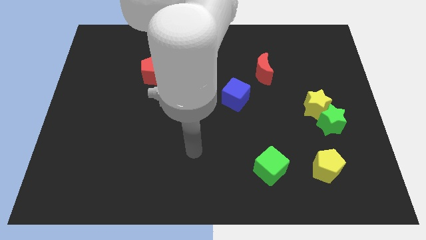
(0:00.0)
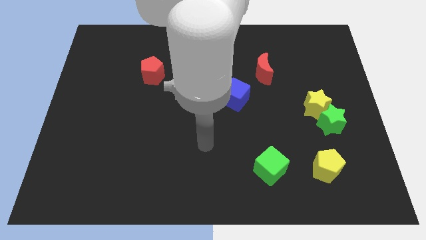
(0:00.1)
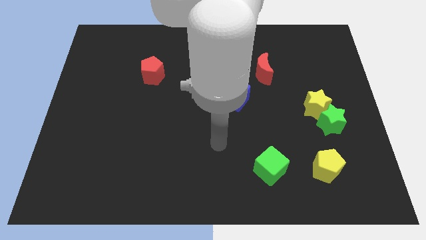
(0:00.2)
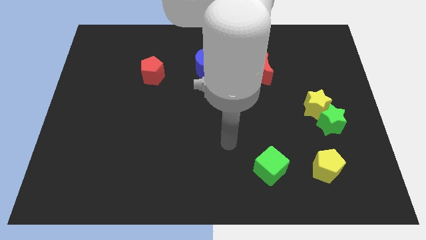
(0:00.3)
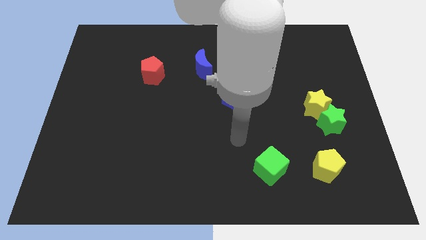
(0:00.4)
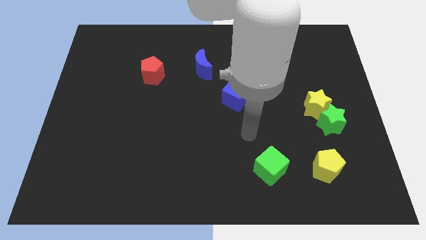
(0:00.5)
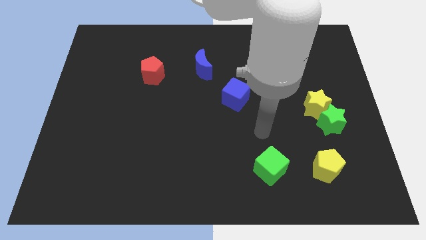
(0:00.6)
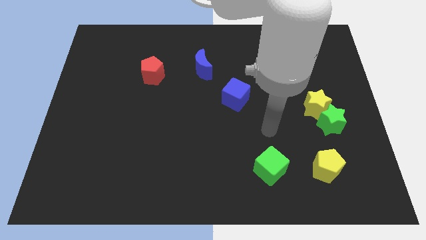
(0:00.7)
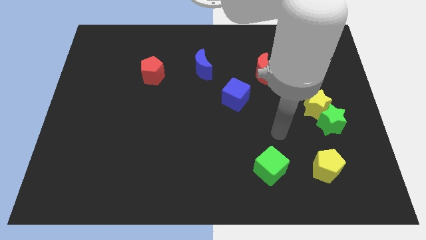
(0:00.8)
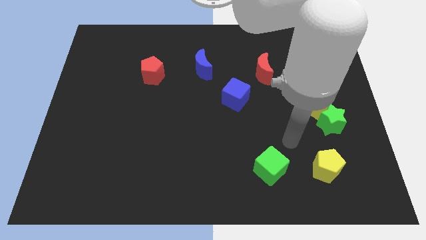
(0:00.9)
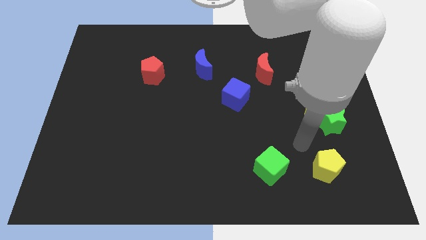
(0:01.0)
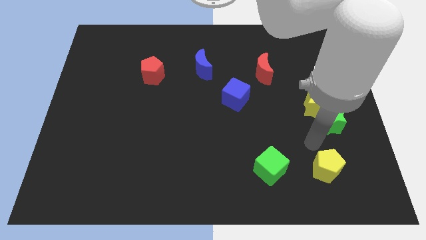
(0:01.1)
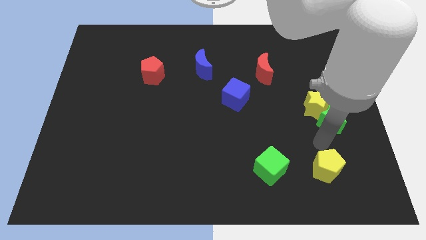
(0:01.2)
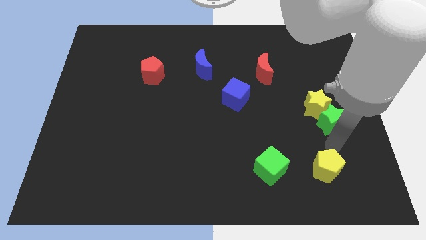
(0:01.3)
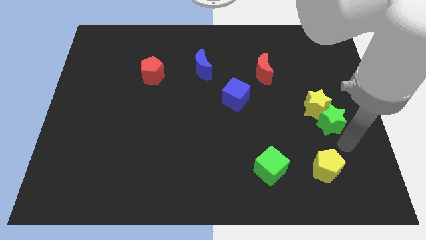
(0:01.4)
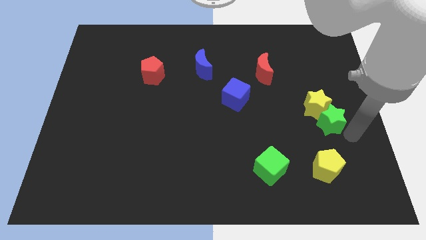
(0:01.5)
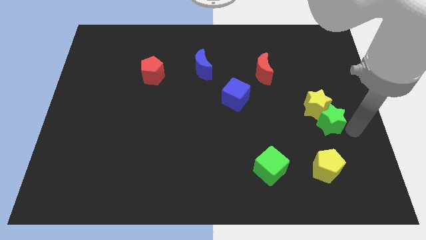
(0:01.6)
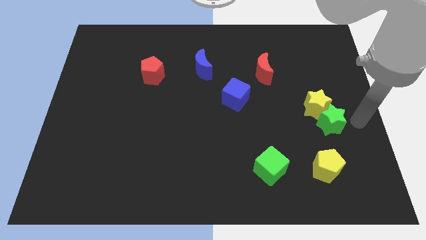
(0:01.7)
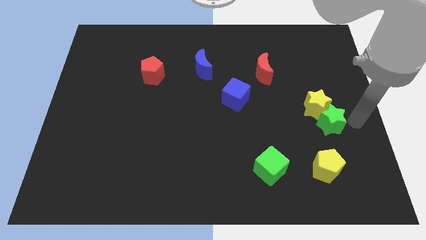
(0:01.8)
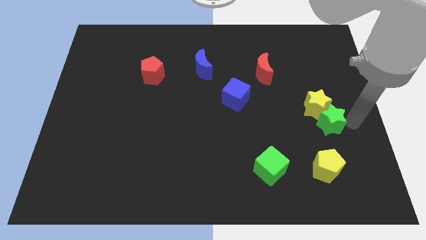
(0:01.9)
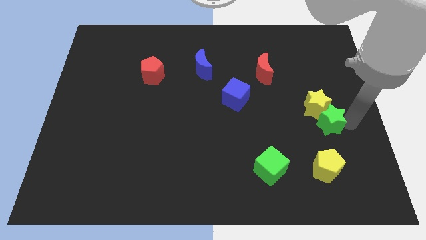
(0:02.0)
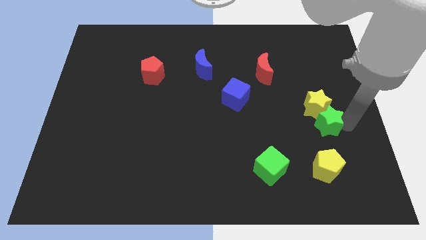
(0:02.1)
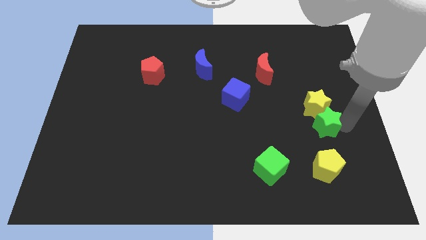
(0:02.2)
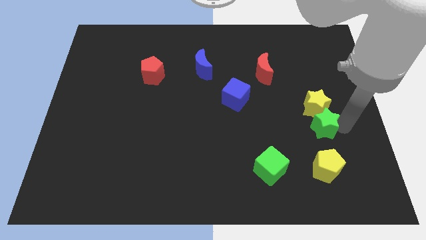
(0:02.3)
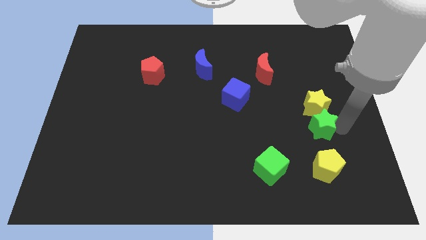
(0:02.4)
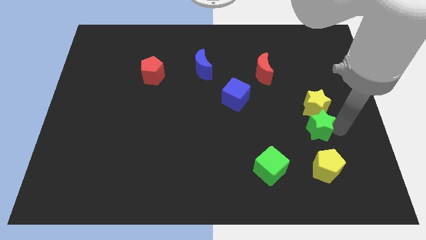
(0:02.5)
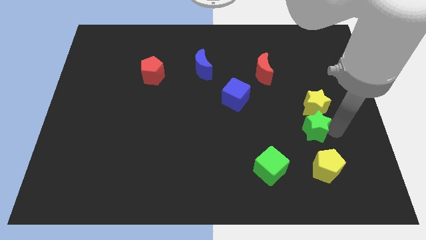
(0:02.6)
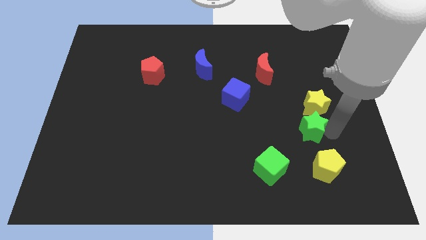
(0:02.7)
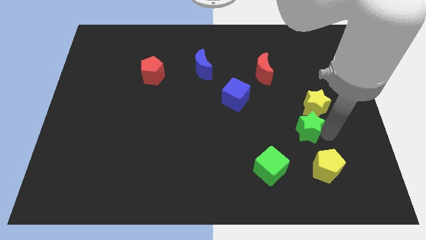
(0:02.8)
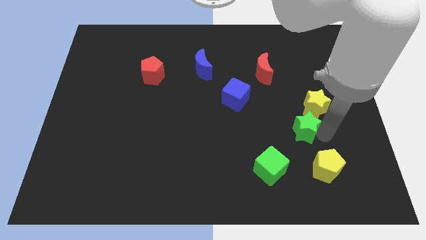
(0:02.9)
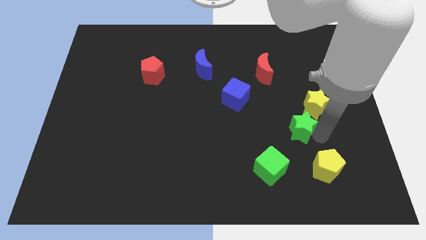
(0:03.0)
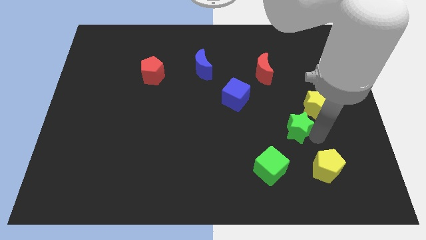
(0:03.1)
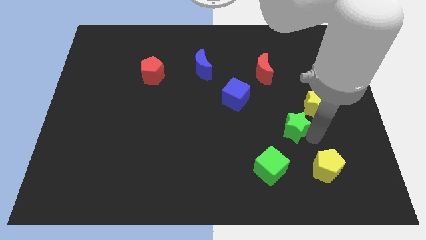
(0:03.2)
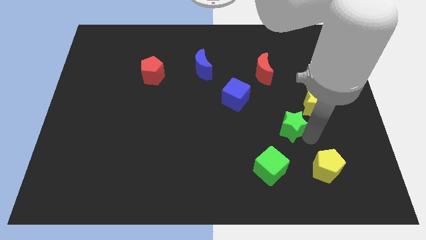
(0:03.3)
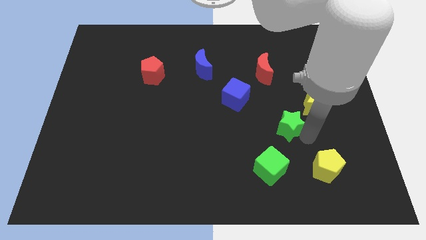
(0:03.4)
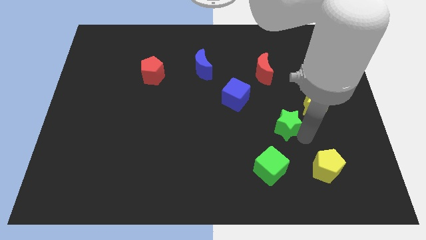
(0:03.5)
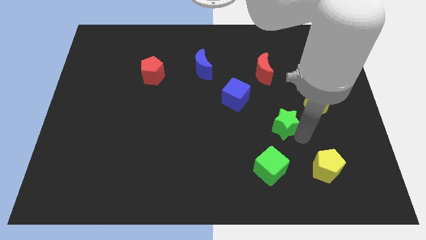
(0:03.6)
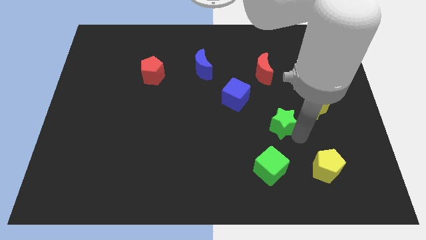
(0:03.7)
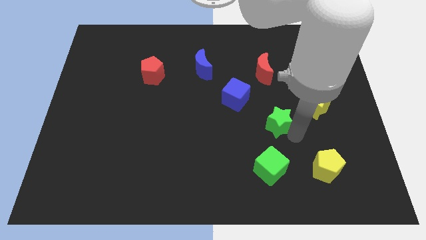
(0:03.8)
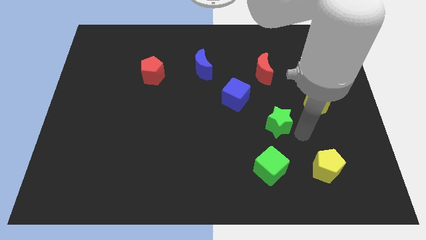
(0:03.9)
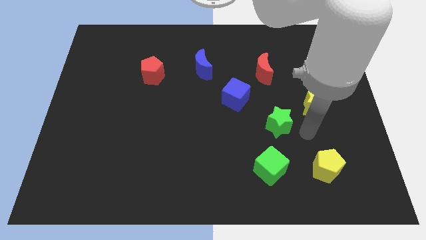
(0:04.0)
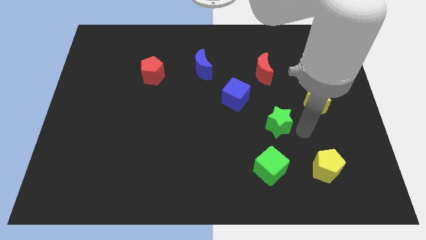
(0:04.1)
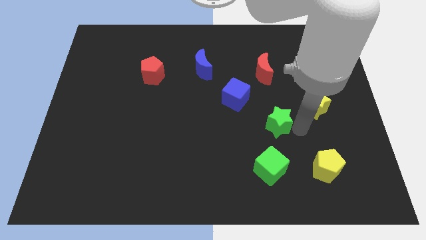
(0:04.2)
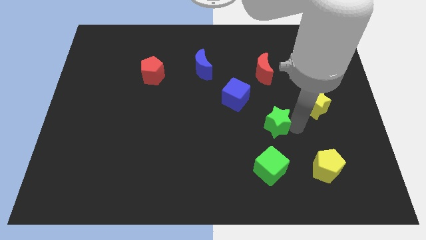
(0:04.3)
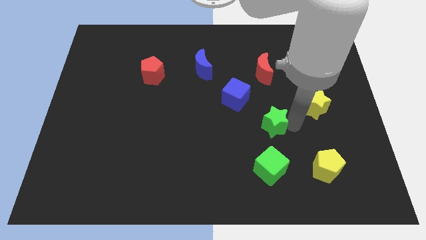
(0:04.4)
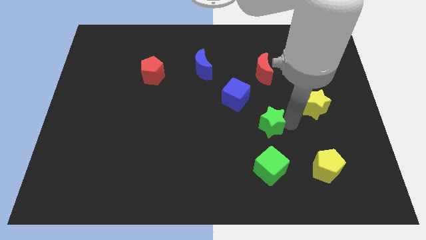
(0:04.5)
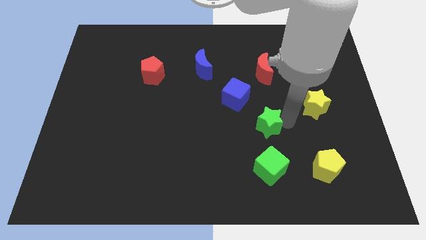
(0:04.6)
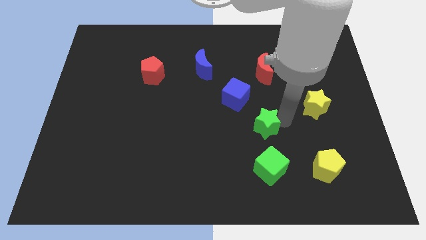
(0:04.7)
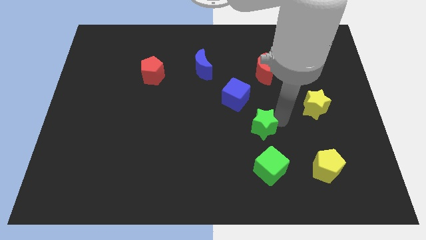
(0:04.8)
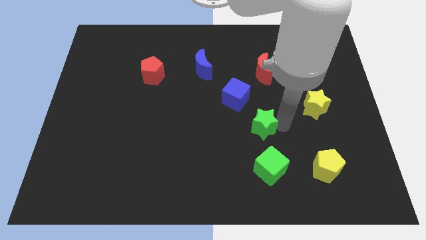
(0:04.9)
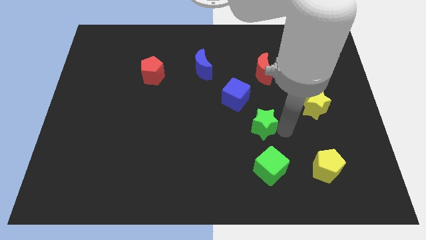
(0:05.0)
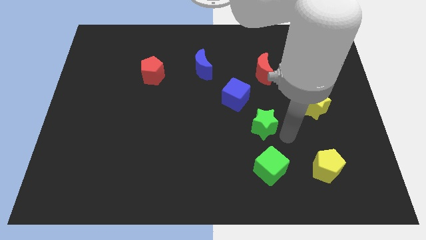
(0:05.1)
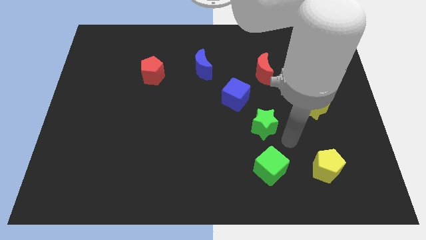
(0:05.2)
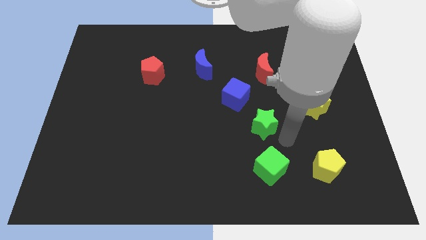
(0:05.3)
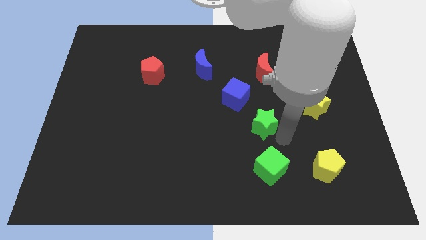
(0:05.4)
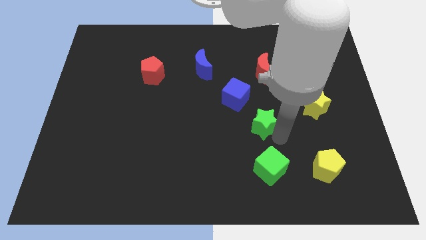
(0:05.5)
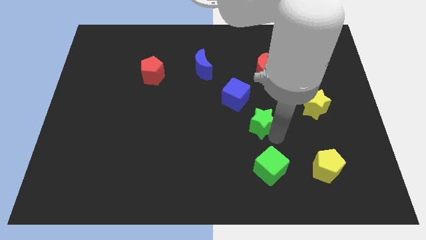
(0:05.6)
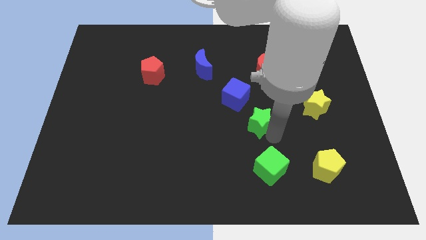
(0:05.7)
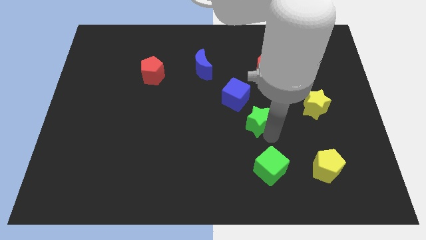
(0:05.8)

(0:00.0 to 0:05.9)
put the green star to the middle of the board

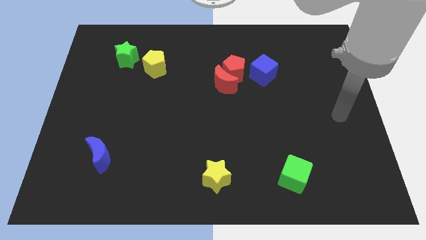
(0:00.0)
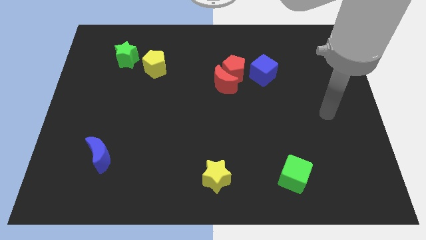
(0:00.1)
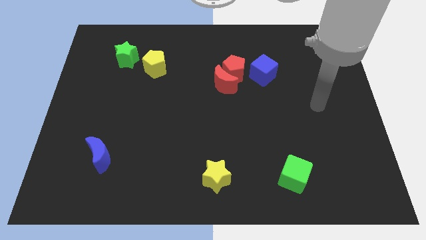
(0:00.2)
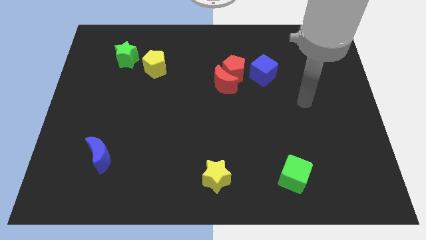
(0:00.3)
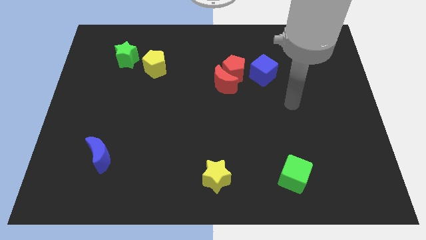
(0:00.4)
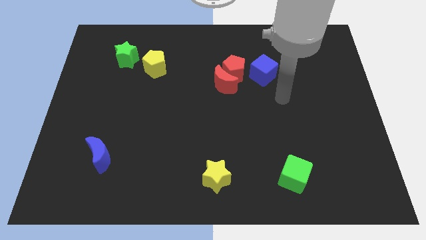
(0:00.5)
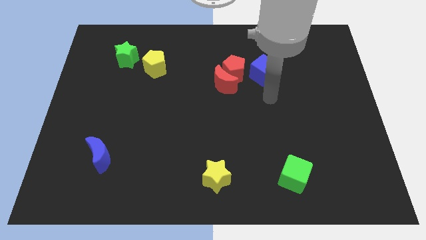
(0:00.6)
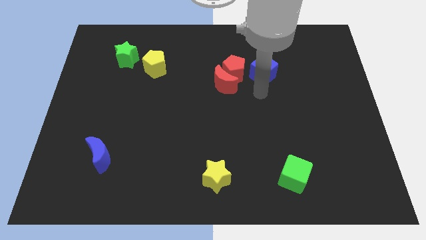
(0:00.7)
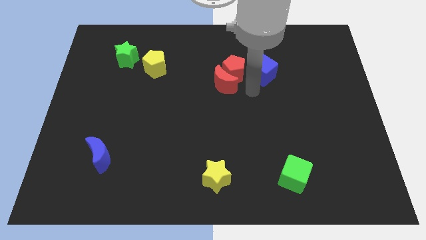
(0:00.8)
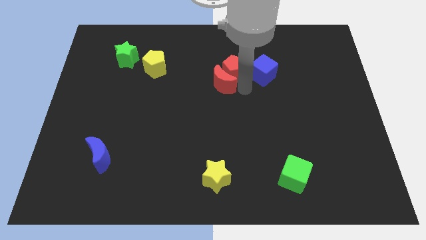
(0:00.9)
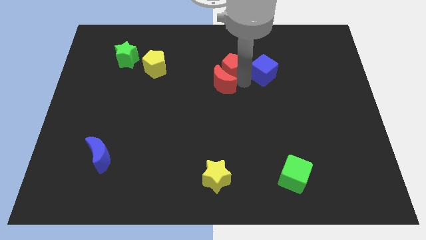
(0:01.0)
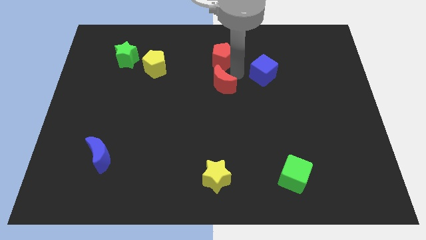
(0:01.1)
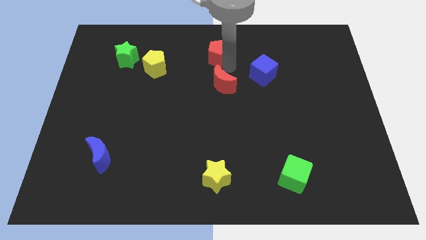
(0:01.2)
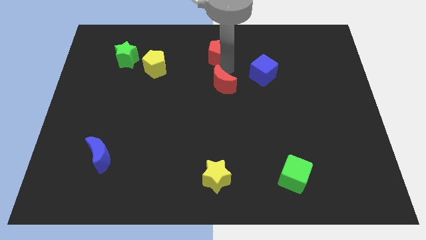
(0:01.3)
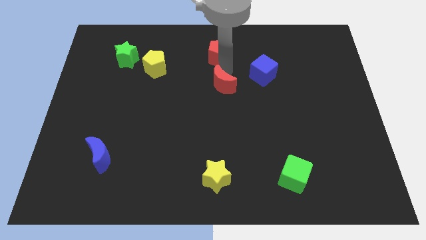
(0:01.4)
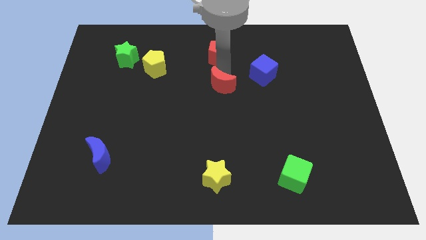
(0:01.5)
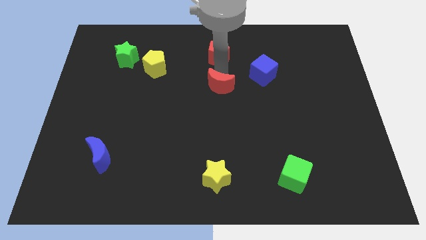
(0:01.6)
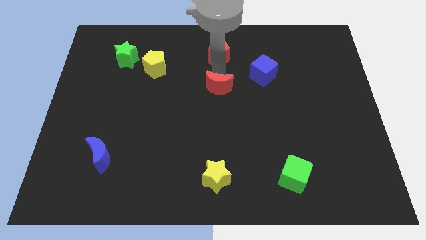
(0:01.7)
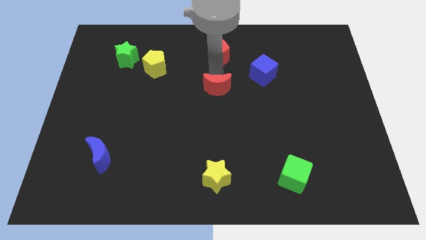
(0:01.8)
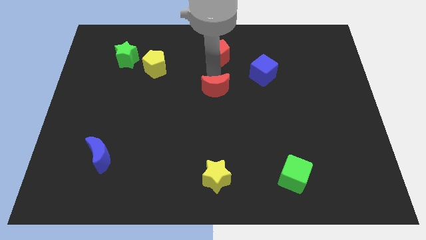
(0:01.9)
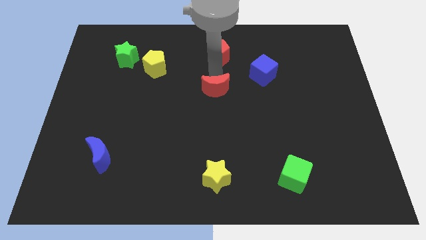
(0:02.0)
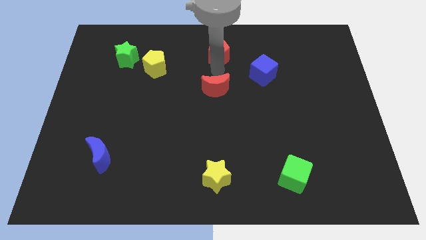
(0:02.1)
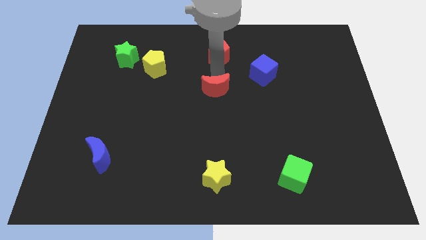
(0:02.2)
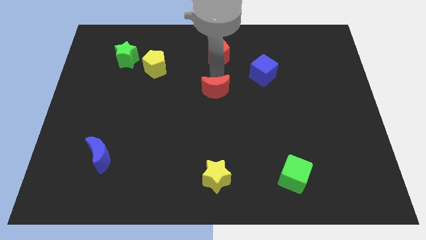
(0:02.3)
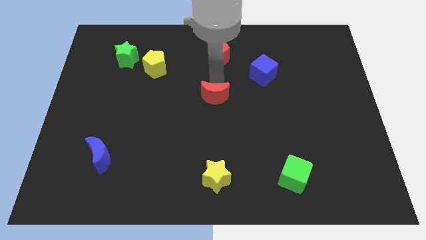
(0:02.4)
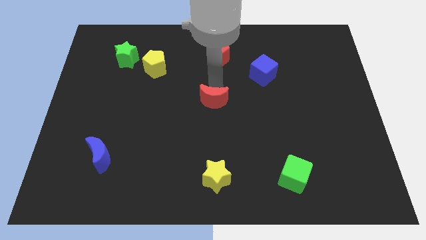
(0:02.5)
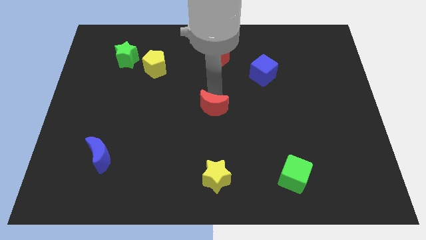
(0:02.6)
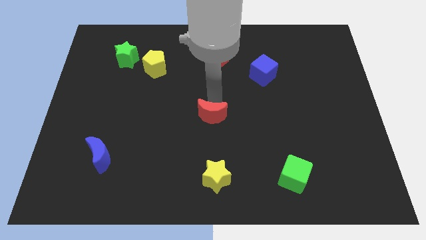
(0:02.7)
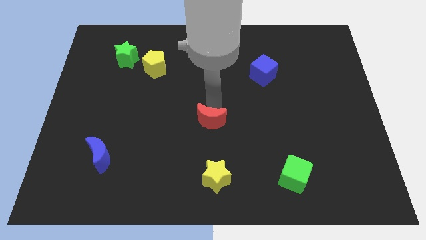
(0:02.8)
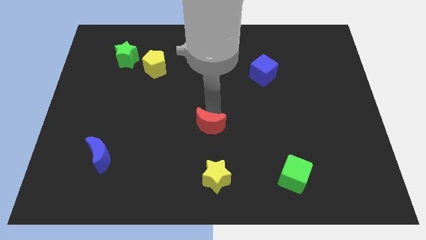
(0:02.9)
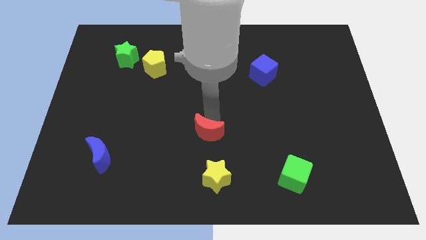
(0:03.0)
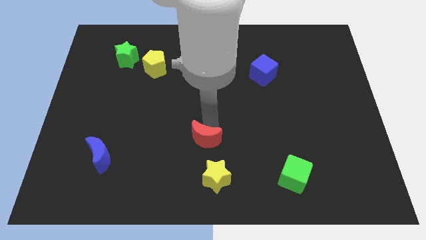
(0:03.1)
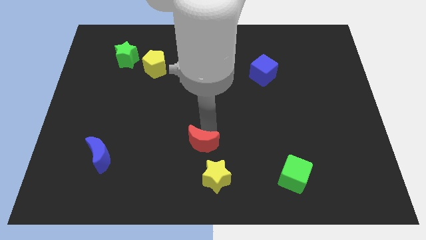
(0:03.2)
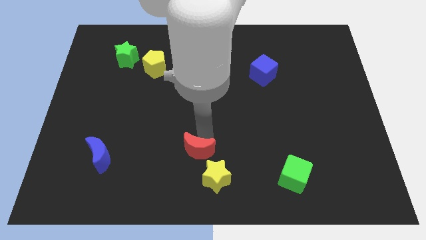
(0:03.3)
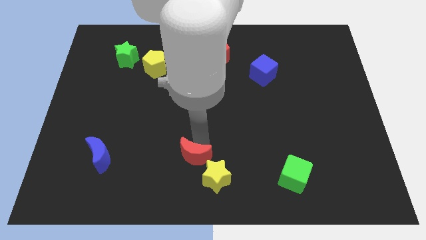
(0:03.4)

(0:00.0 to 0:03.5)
slide the red moon to the bottom
